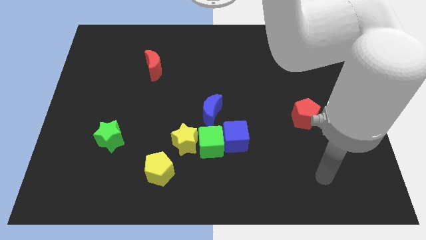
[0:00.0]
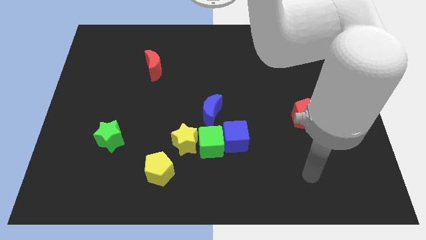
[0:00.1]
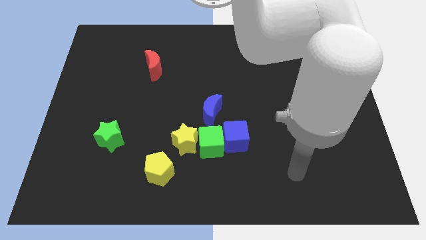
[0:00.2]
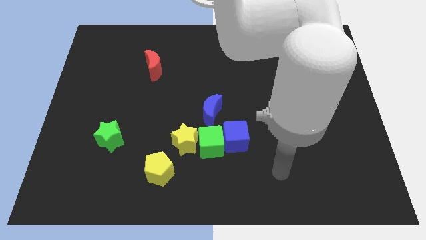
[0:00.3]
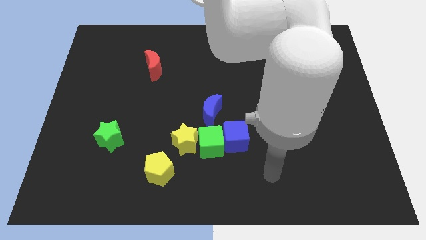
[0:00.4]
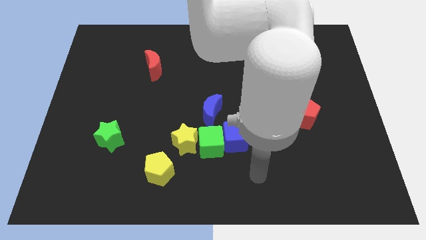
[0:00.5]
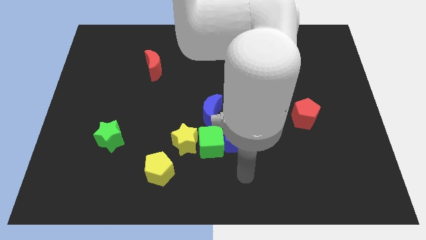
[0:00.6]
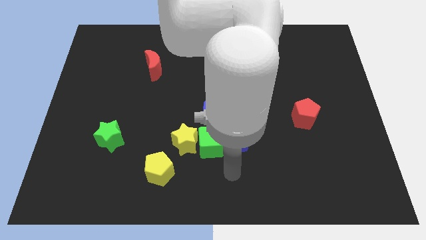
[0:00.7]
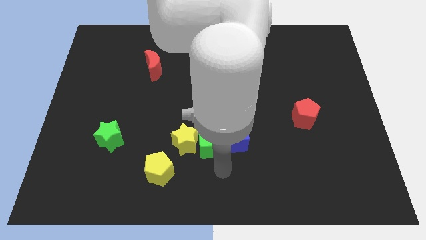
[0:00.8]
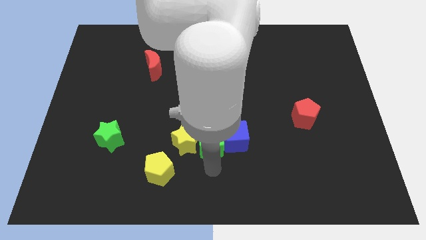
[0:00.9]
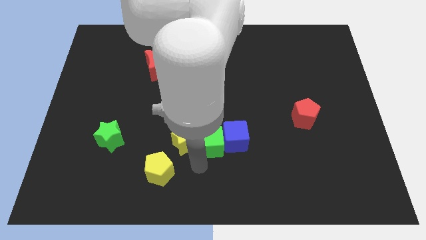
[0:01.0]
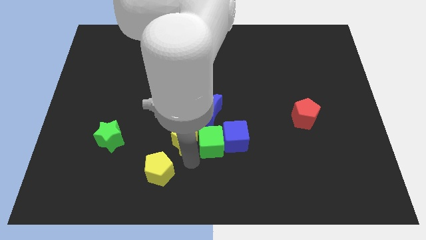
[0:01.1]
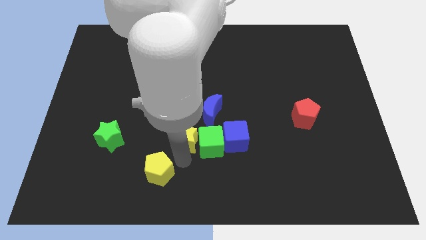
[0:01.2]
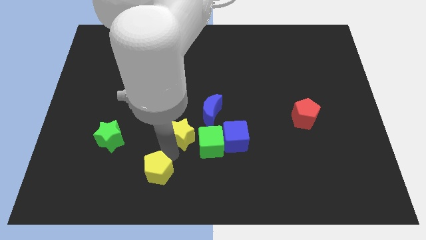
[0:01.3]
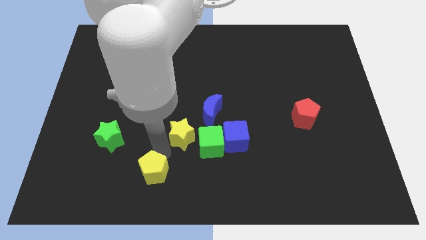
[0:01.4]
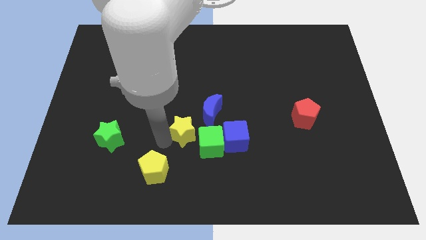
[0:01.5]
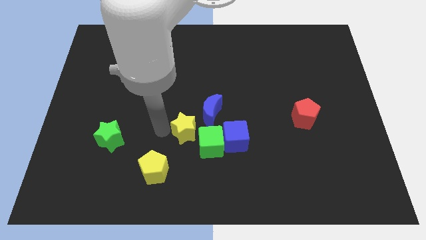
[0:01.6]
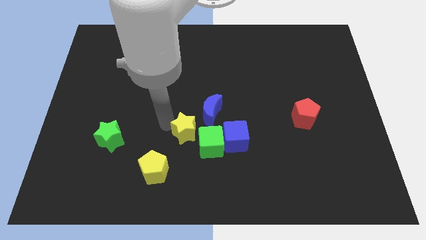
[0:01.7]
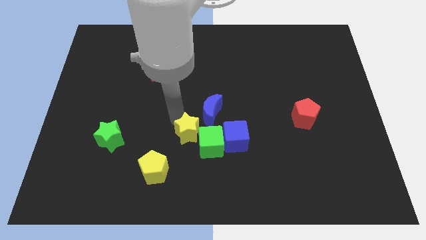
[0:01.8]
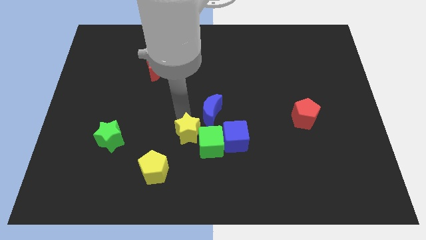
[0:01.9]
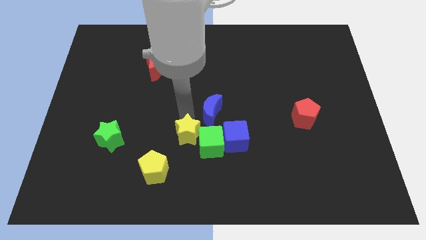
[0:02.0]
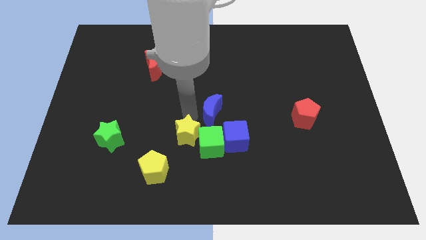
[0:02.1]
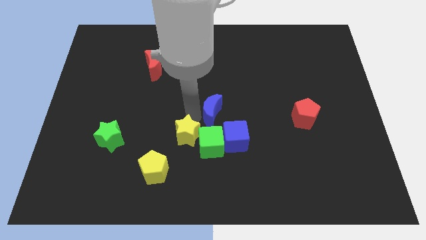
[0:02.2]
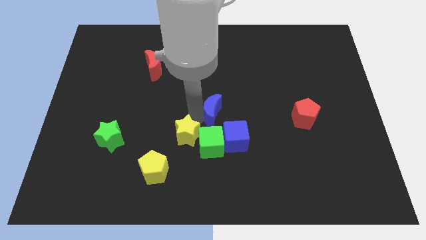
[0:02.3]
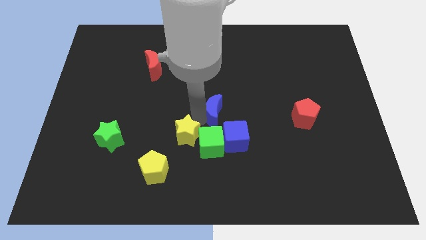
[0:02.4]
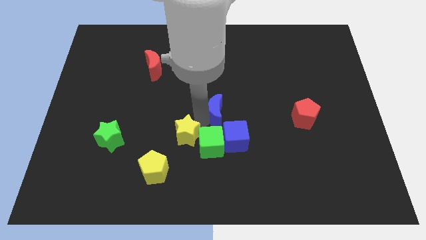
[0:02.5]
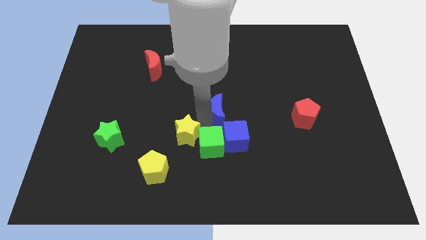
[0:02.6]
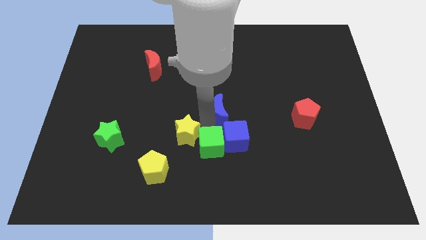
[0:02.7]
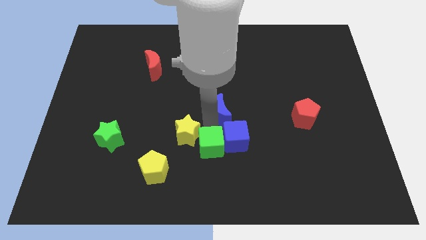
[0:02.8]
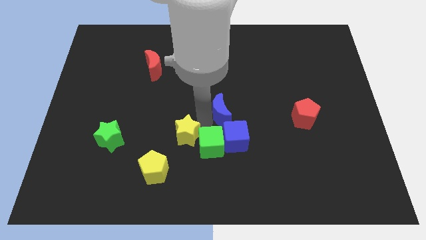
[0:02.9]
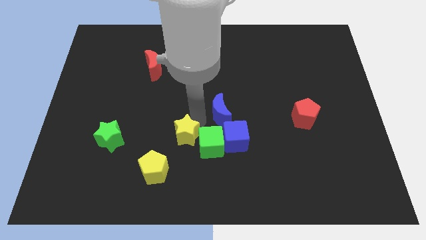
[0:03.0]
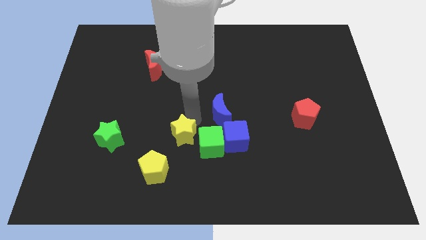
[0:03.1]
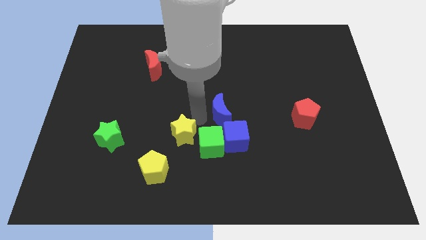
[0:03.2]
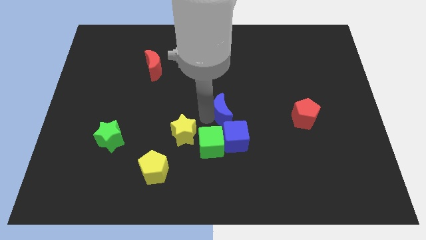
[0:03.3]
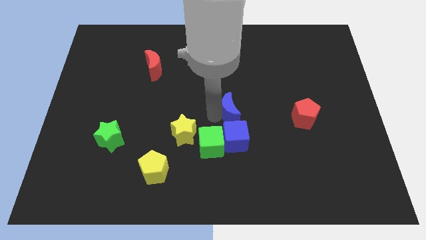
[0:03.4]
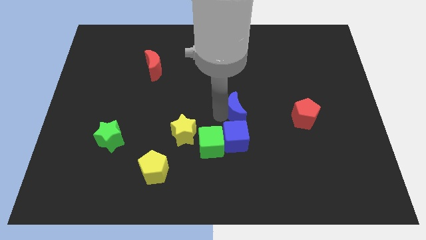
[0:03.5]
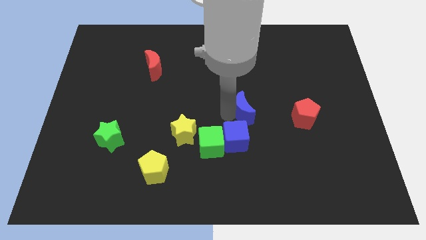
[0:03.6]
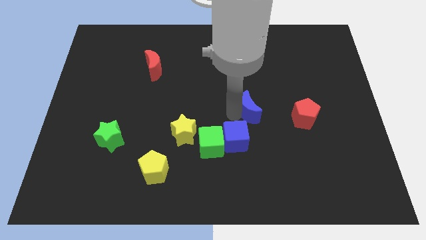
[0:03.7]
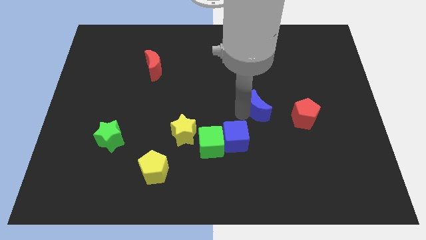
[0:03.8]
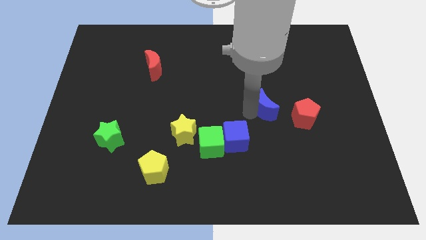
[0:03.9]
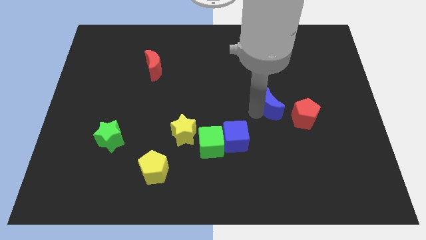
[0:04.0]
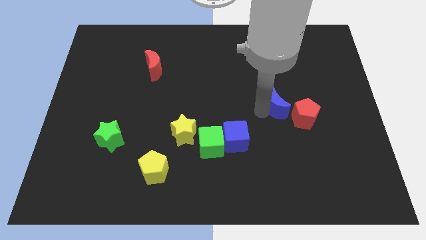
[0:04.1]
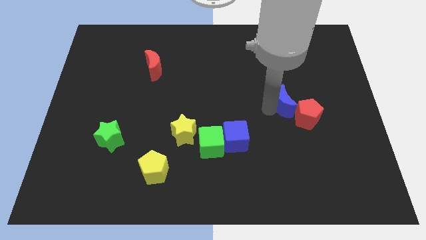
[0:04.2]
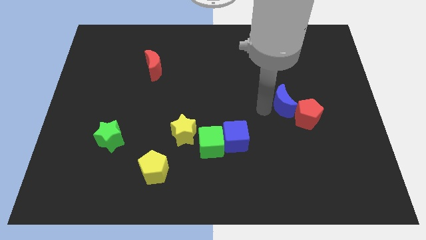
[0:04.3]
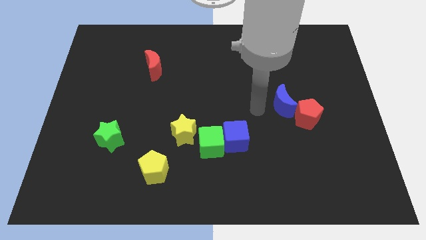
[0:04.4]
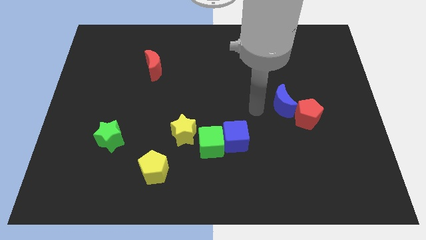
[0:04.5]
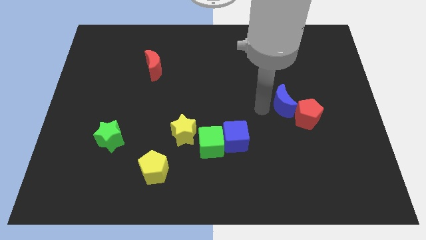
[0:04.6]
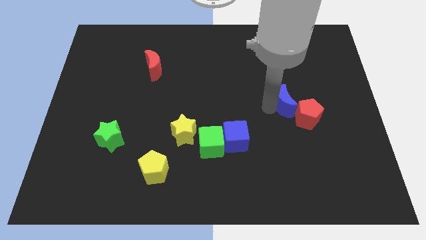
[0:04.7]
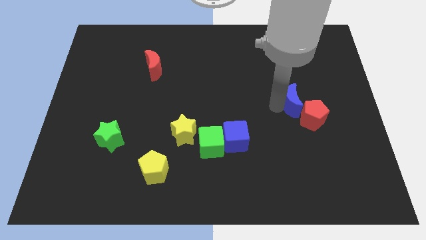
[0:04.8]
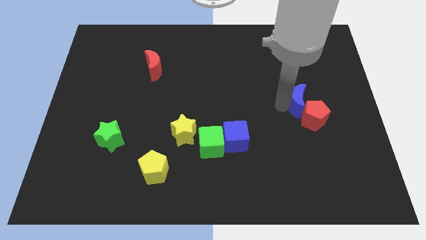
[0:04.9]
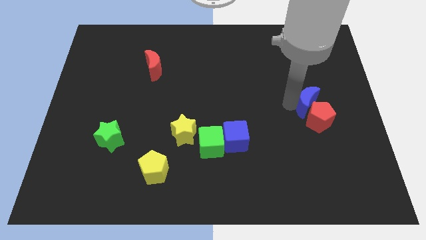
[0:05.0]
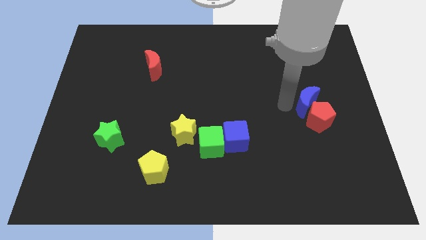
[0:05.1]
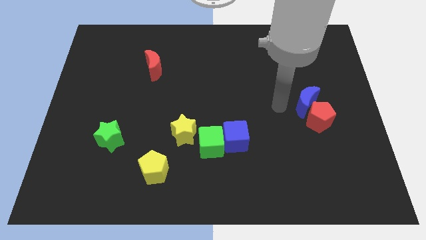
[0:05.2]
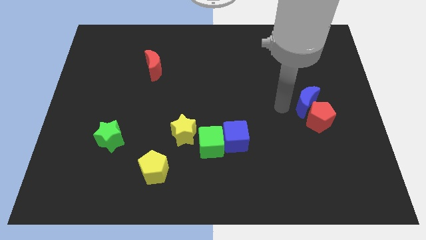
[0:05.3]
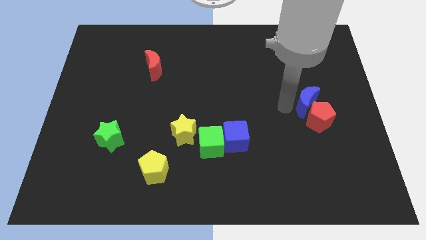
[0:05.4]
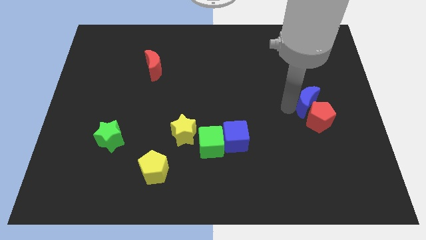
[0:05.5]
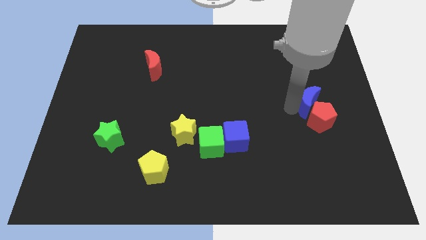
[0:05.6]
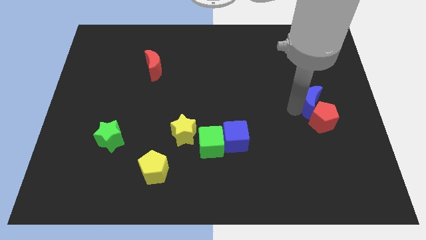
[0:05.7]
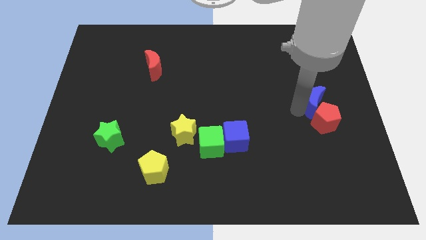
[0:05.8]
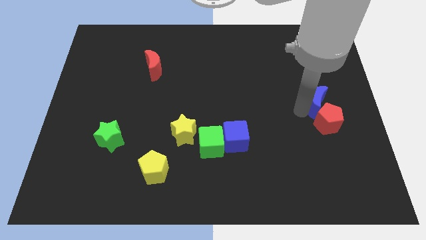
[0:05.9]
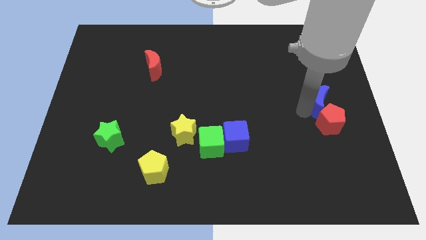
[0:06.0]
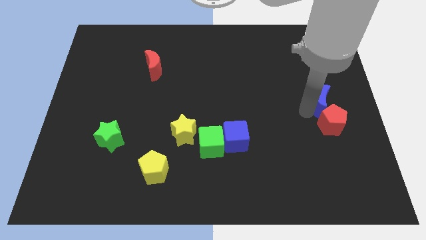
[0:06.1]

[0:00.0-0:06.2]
put the blue moon to the right side of the board
